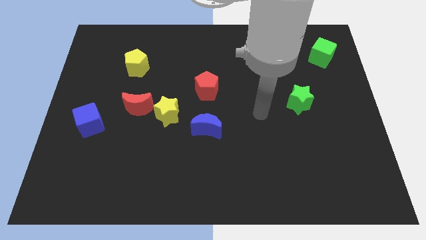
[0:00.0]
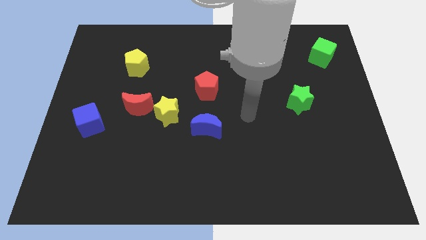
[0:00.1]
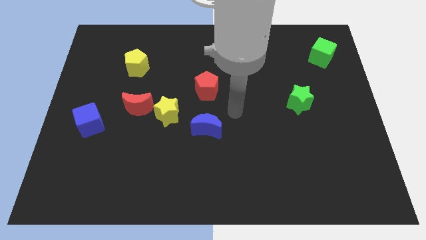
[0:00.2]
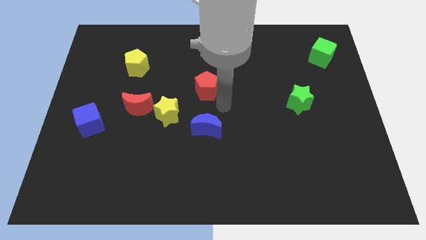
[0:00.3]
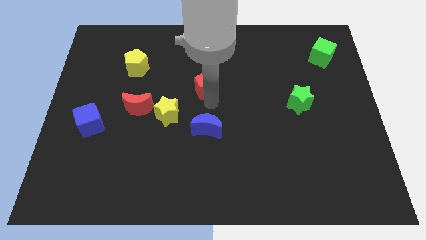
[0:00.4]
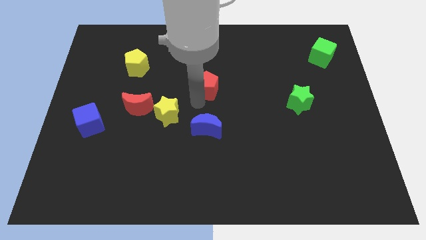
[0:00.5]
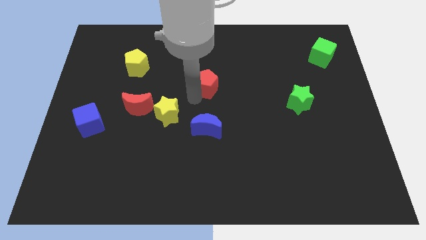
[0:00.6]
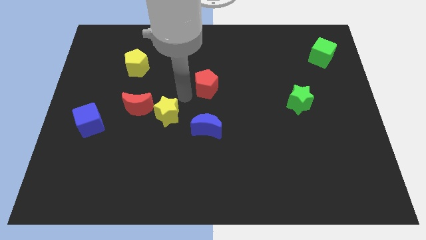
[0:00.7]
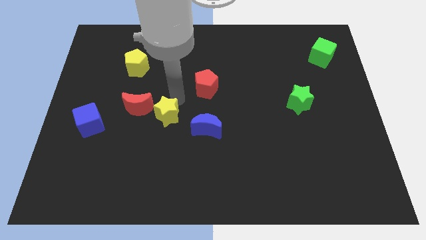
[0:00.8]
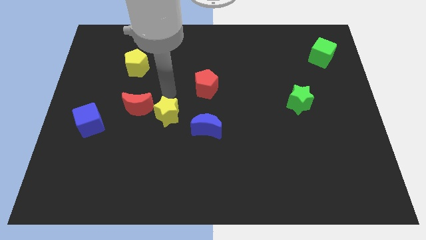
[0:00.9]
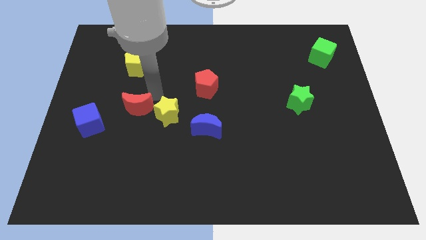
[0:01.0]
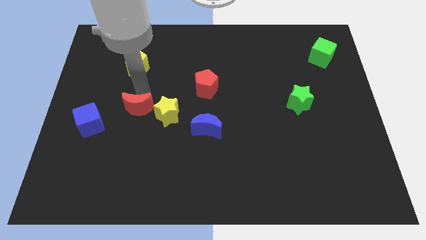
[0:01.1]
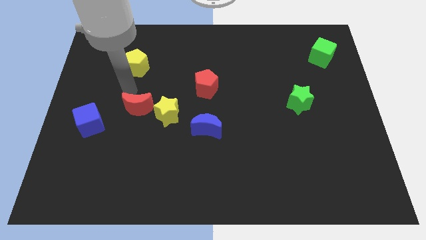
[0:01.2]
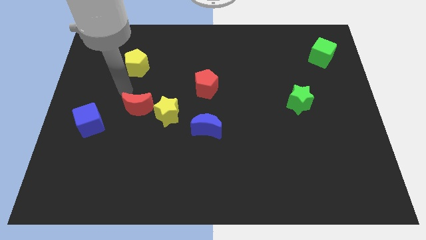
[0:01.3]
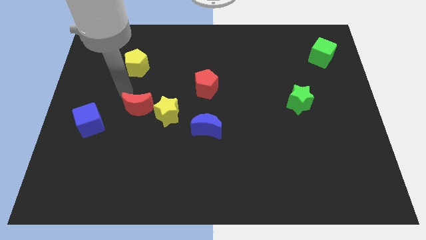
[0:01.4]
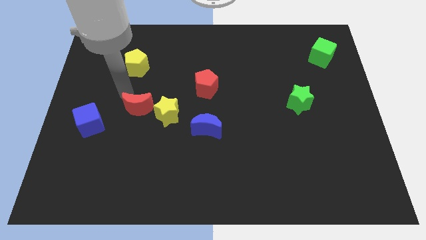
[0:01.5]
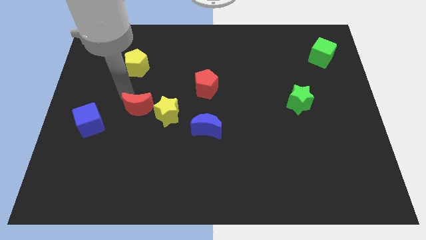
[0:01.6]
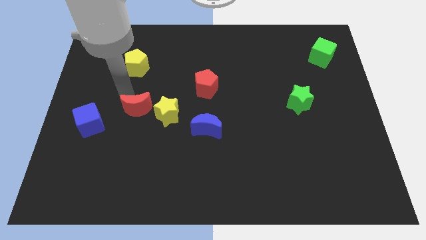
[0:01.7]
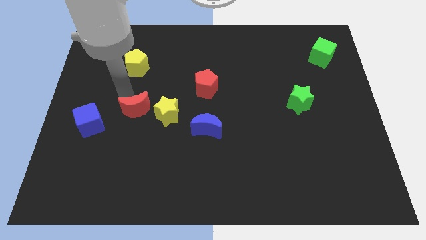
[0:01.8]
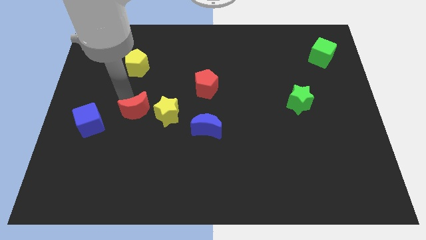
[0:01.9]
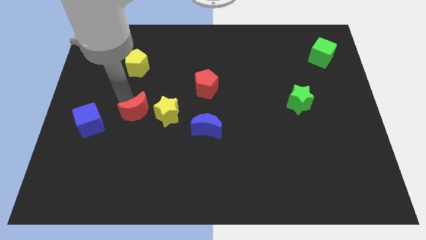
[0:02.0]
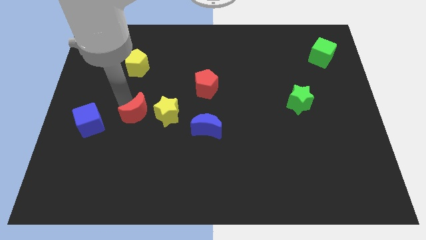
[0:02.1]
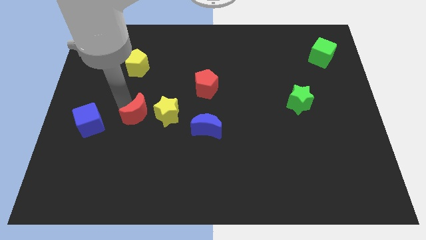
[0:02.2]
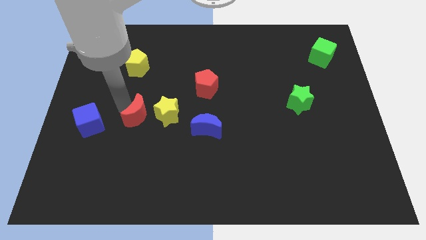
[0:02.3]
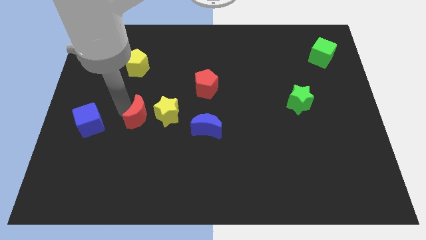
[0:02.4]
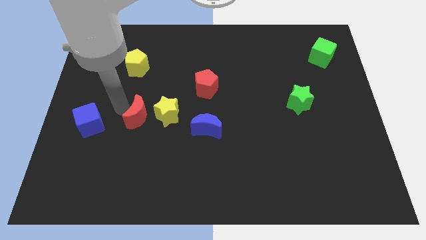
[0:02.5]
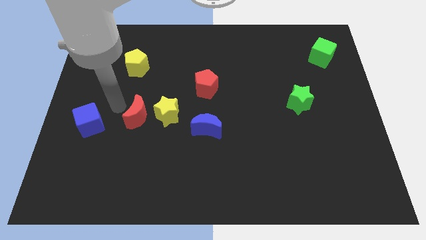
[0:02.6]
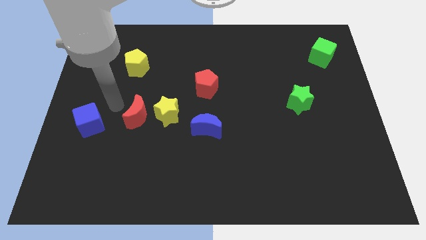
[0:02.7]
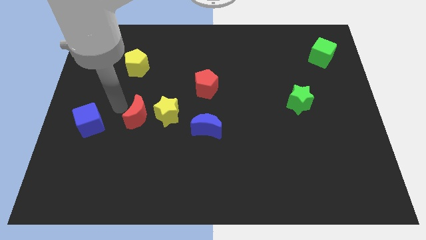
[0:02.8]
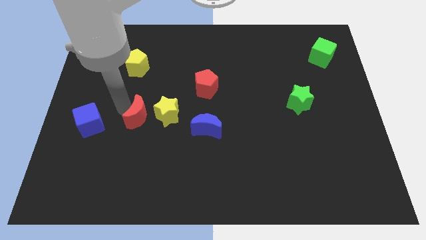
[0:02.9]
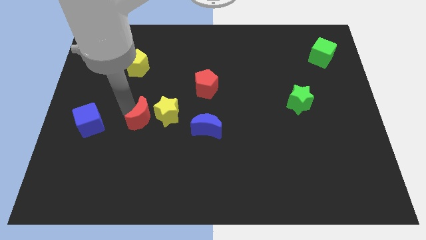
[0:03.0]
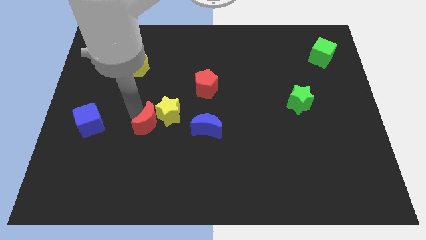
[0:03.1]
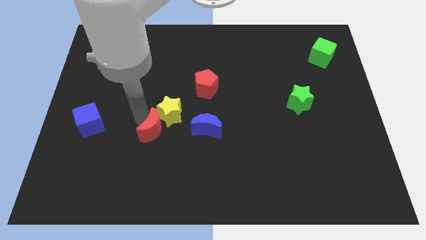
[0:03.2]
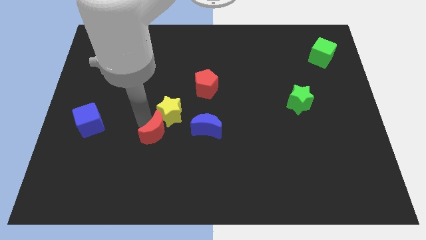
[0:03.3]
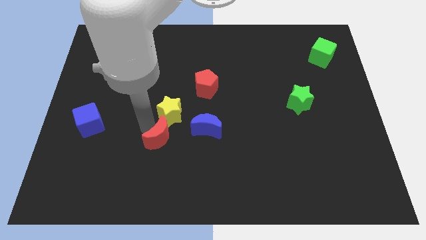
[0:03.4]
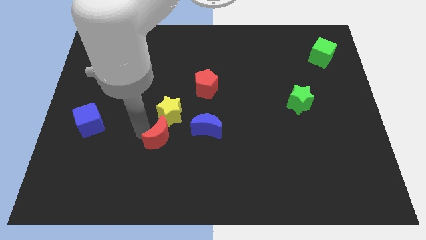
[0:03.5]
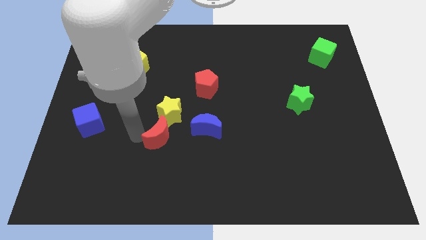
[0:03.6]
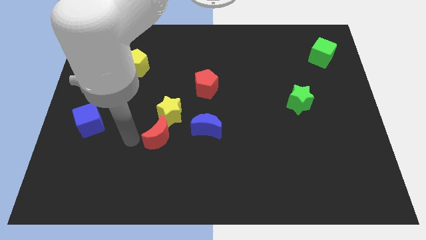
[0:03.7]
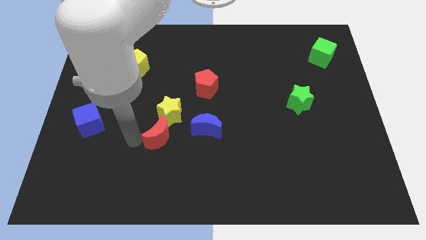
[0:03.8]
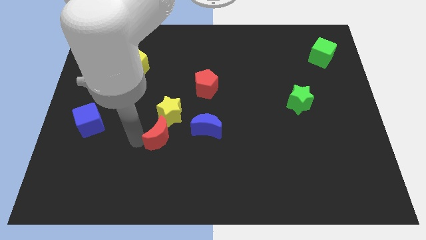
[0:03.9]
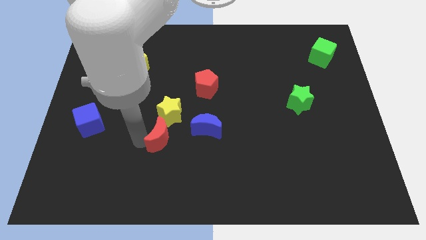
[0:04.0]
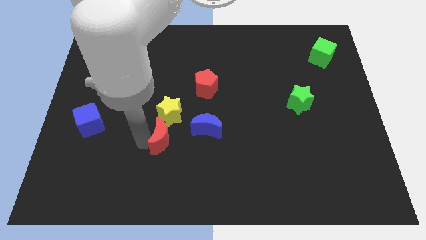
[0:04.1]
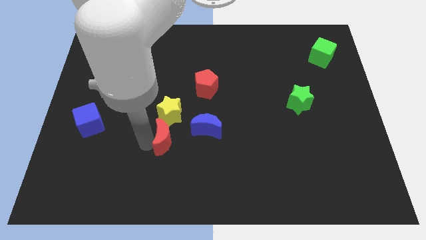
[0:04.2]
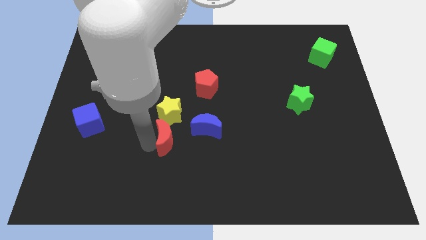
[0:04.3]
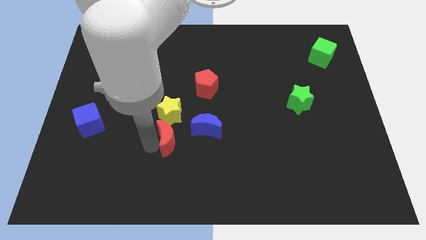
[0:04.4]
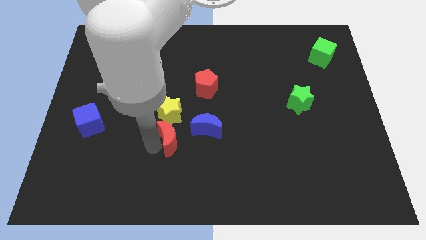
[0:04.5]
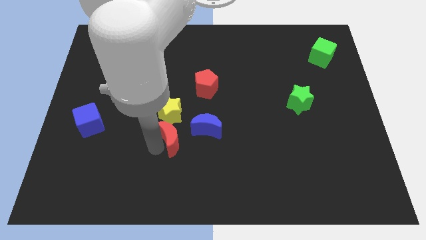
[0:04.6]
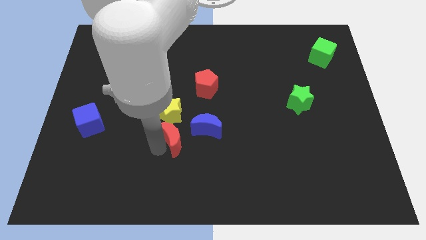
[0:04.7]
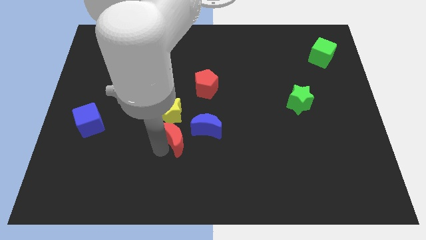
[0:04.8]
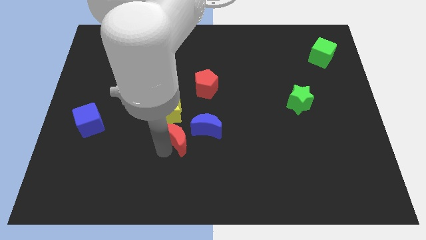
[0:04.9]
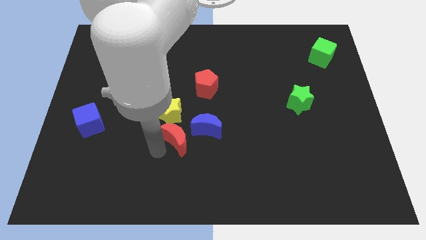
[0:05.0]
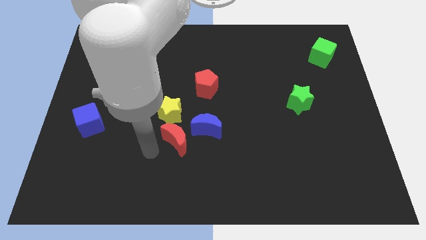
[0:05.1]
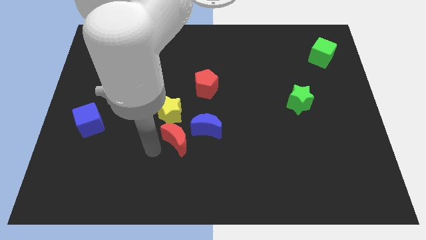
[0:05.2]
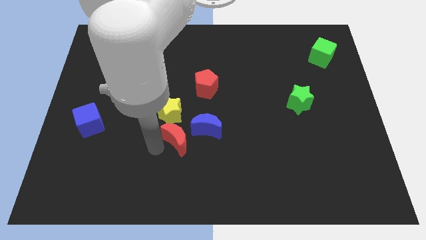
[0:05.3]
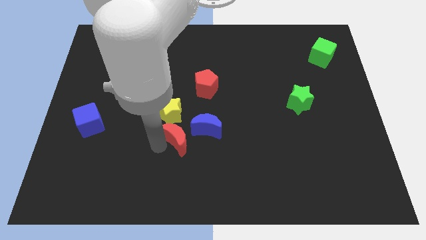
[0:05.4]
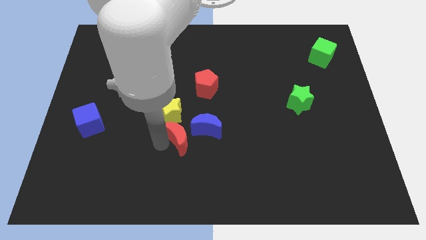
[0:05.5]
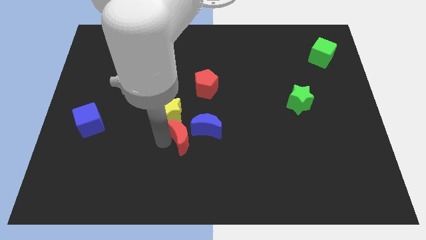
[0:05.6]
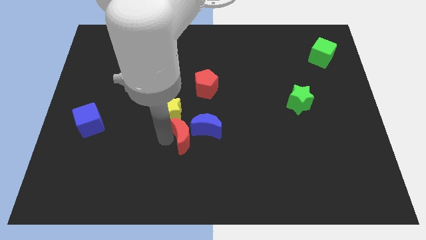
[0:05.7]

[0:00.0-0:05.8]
put the red moon close to the blue moon

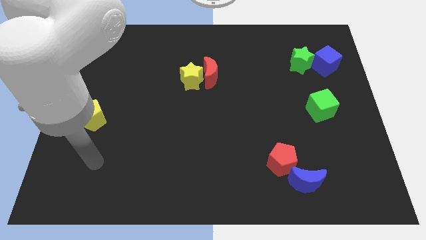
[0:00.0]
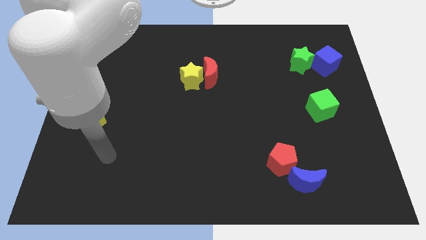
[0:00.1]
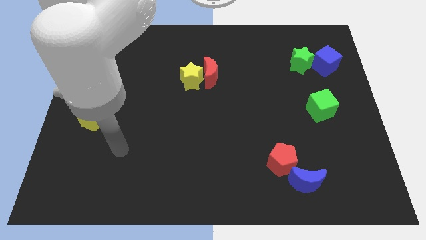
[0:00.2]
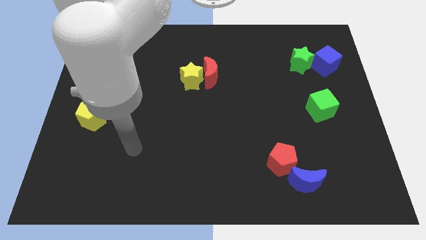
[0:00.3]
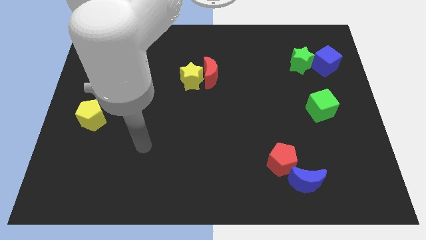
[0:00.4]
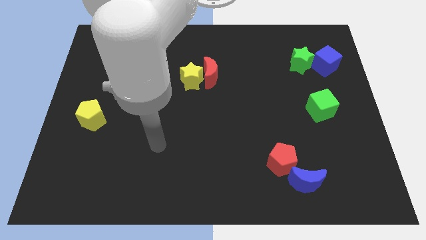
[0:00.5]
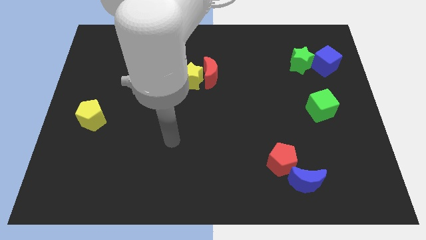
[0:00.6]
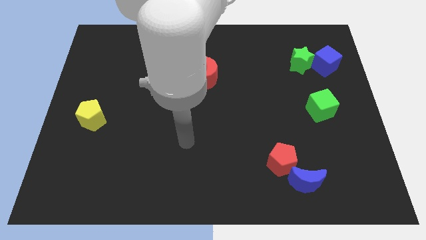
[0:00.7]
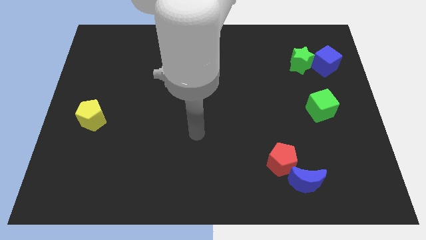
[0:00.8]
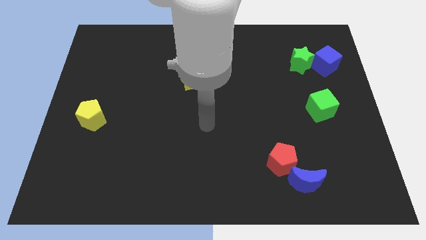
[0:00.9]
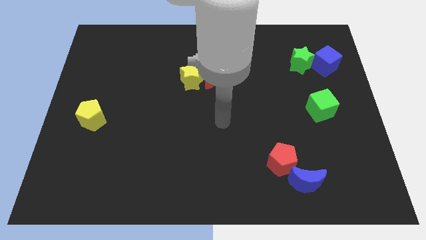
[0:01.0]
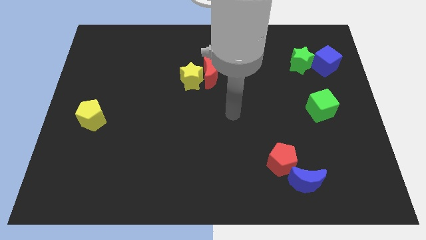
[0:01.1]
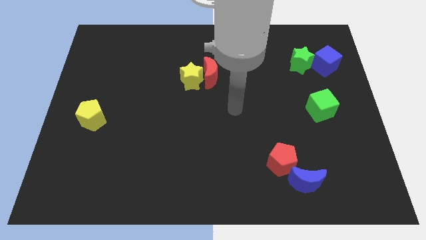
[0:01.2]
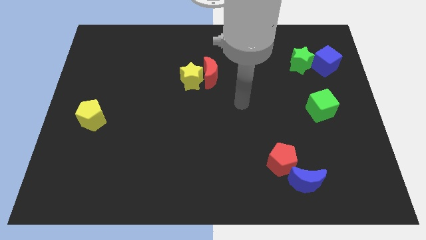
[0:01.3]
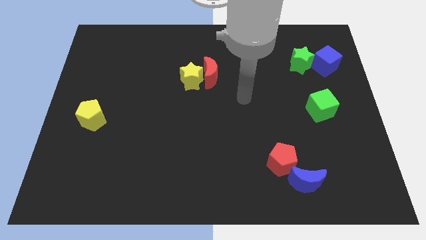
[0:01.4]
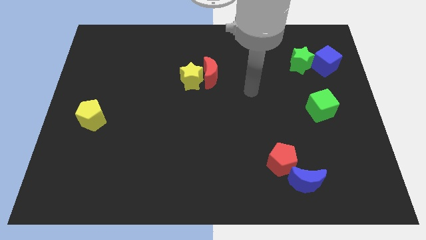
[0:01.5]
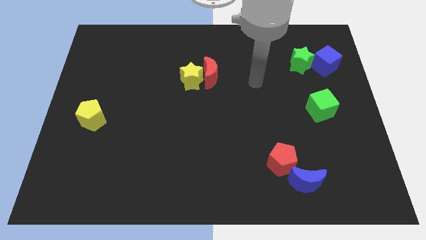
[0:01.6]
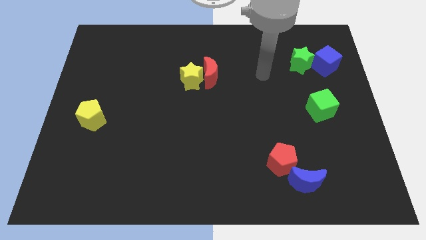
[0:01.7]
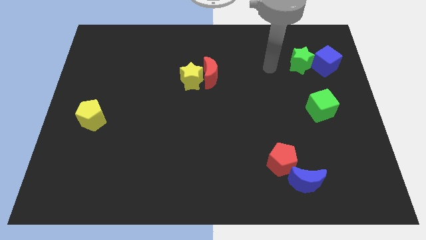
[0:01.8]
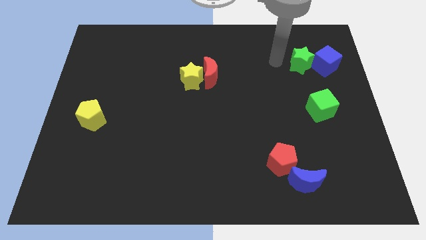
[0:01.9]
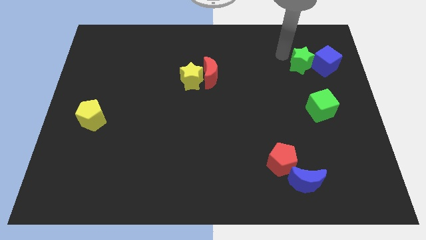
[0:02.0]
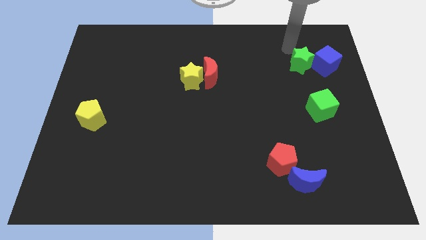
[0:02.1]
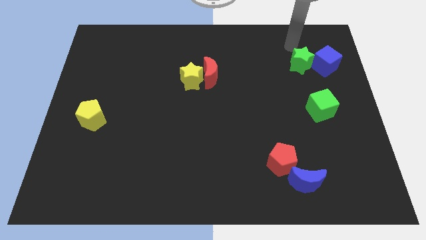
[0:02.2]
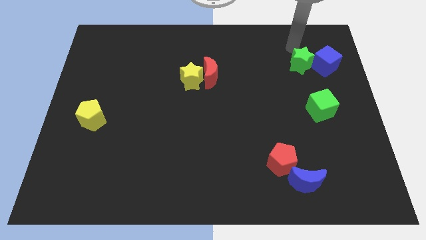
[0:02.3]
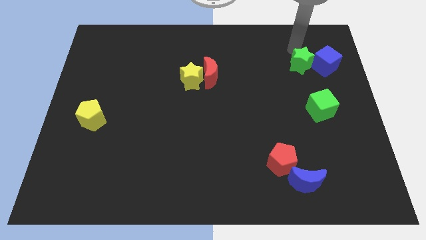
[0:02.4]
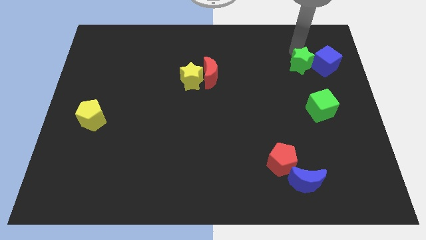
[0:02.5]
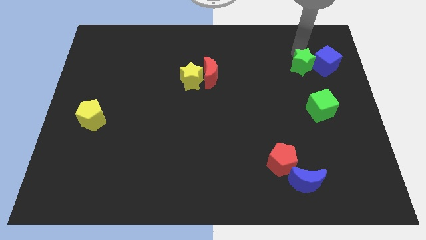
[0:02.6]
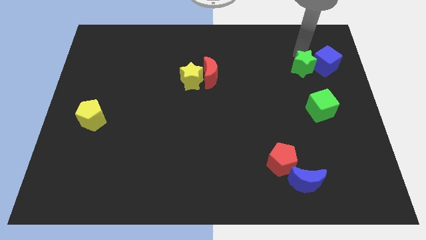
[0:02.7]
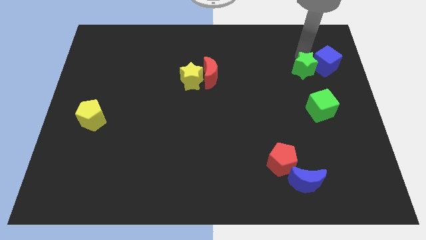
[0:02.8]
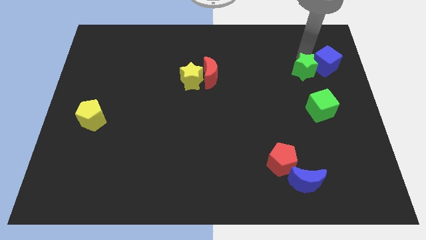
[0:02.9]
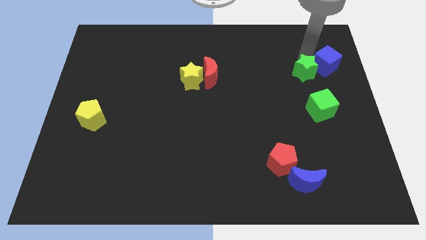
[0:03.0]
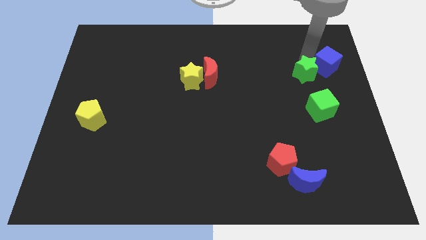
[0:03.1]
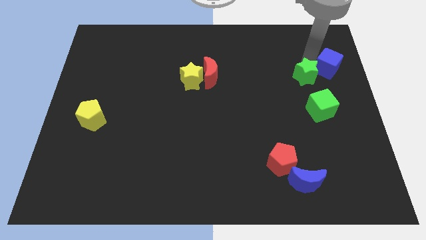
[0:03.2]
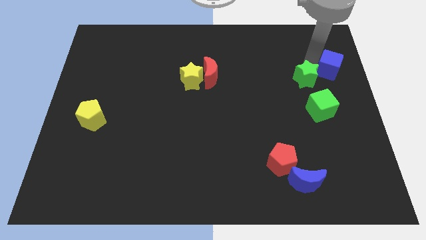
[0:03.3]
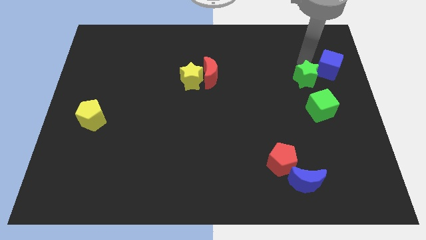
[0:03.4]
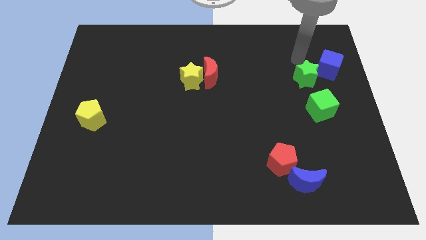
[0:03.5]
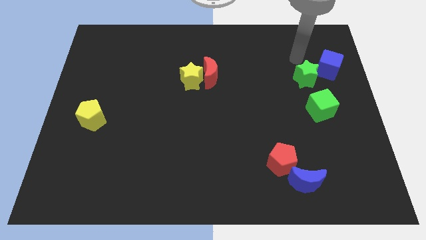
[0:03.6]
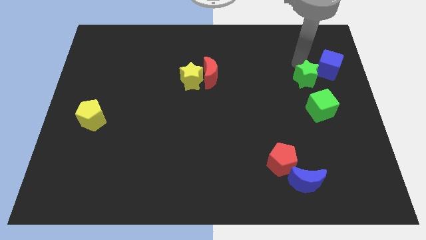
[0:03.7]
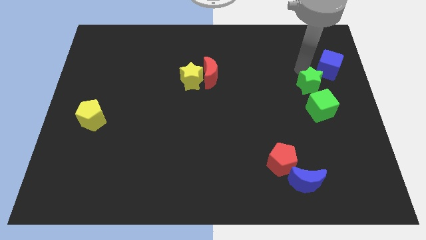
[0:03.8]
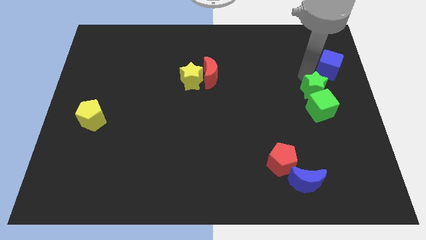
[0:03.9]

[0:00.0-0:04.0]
move the green star towards the green cube
